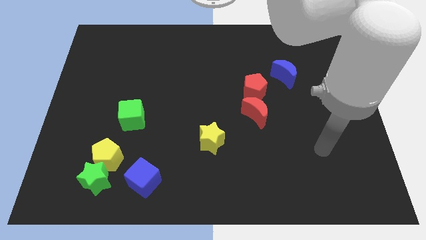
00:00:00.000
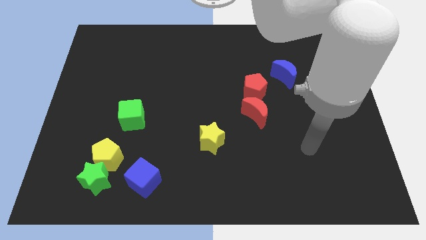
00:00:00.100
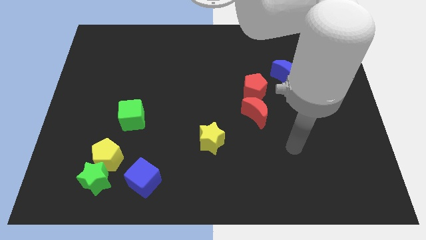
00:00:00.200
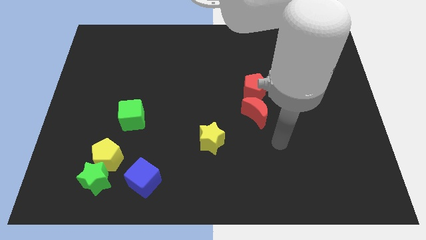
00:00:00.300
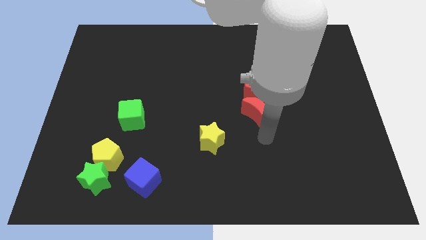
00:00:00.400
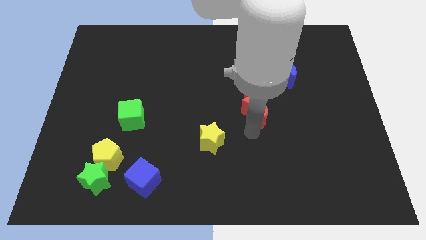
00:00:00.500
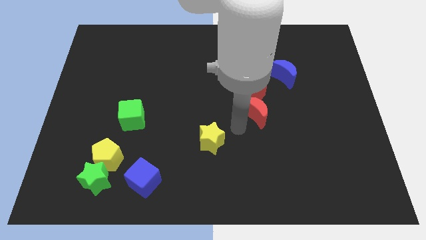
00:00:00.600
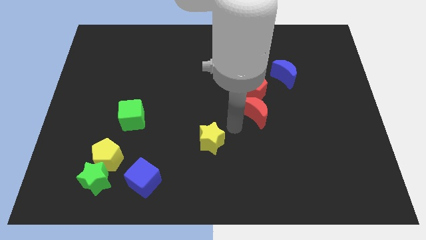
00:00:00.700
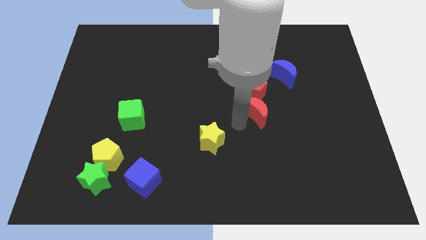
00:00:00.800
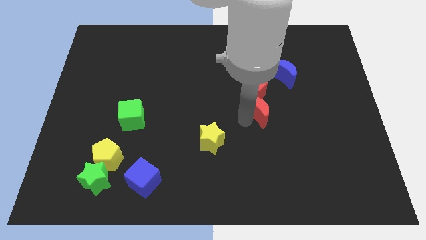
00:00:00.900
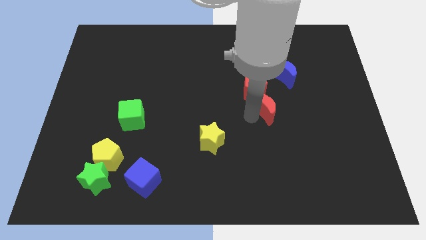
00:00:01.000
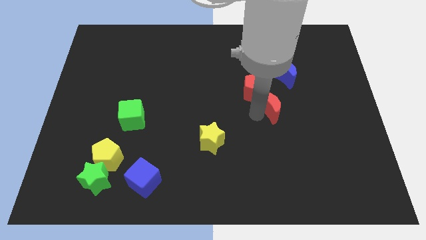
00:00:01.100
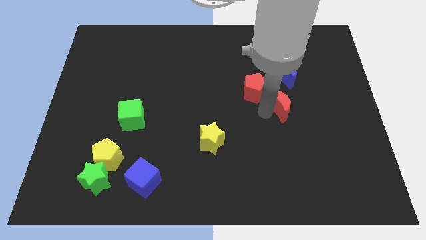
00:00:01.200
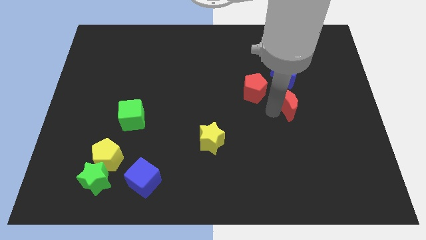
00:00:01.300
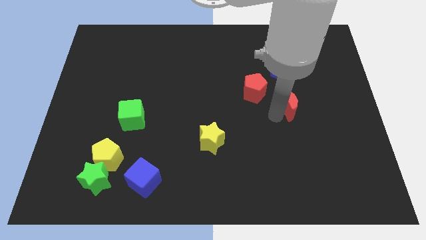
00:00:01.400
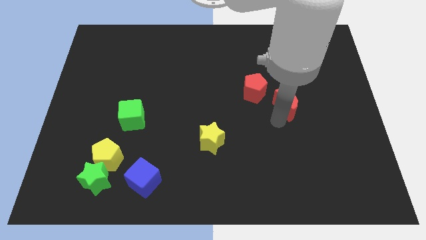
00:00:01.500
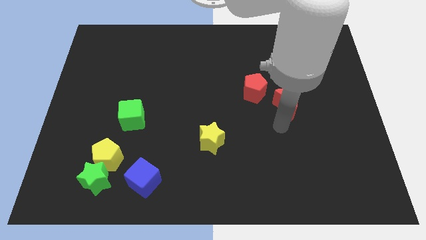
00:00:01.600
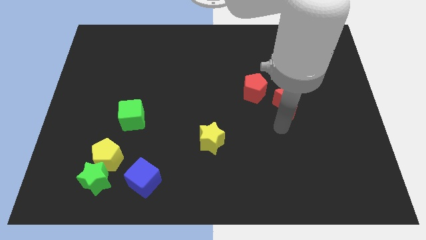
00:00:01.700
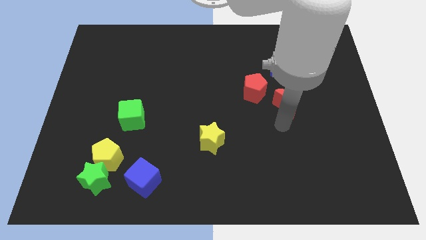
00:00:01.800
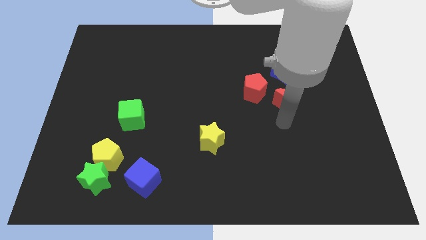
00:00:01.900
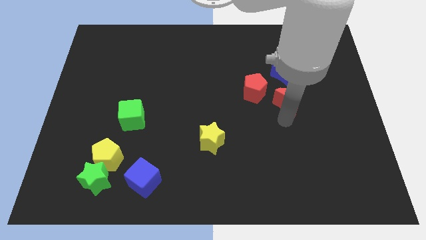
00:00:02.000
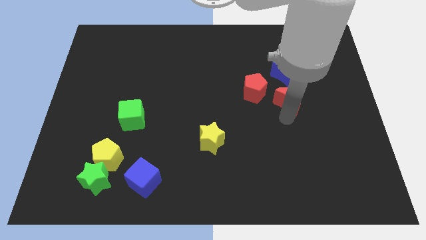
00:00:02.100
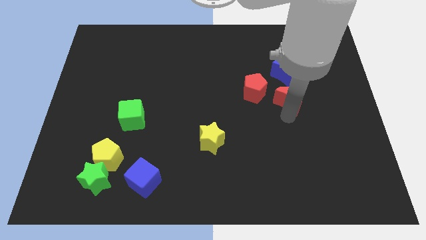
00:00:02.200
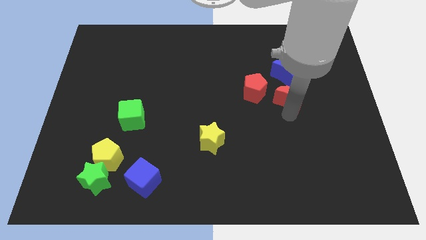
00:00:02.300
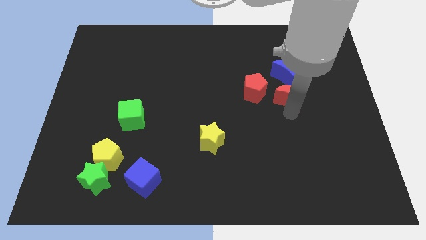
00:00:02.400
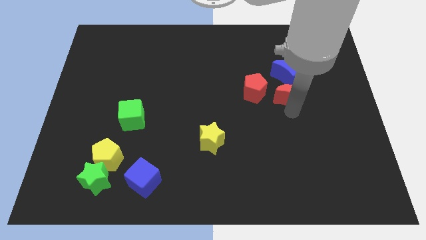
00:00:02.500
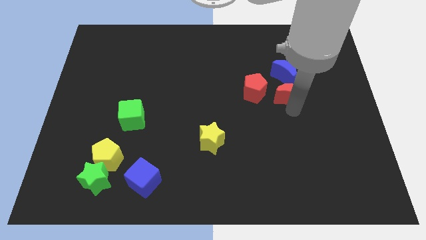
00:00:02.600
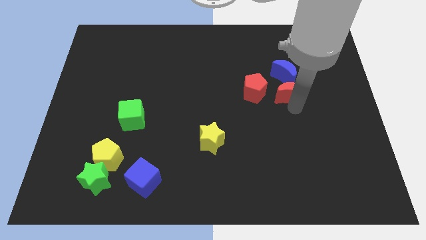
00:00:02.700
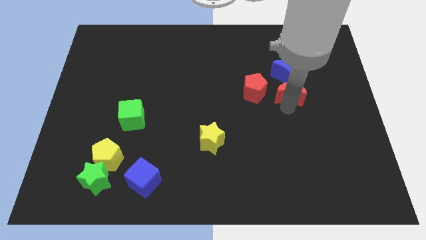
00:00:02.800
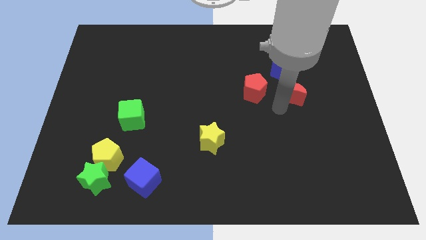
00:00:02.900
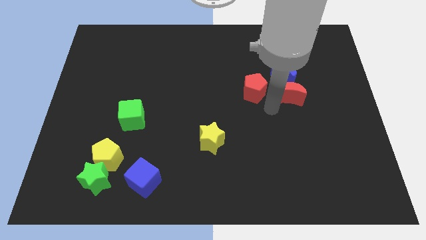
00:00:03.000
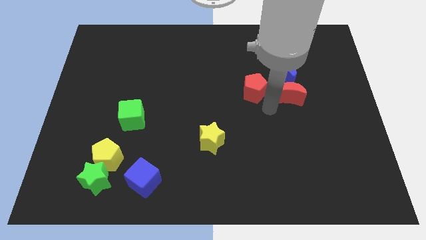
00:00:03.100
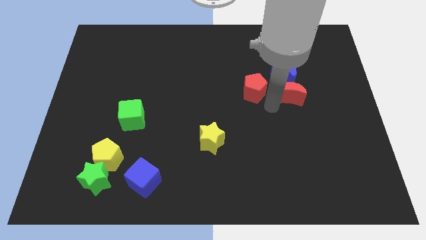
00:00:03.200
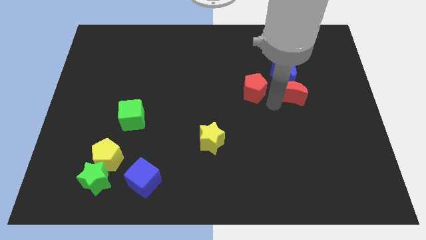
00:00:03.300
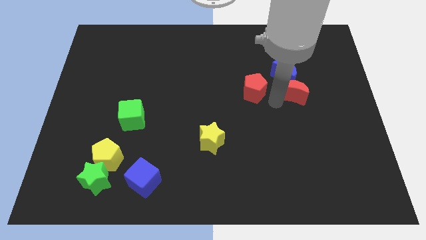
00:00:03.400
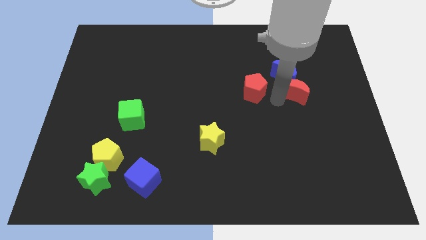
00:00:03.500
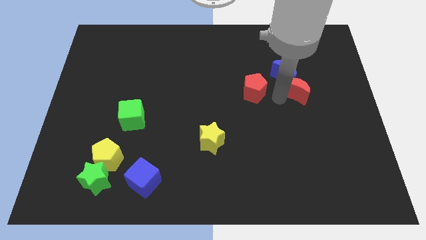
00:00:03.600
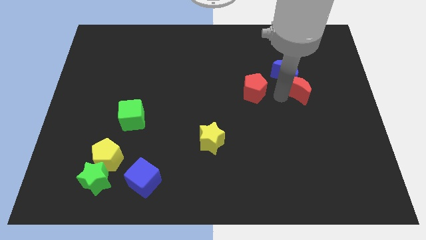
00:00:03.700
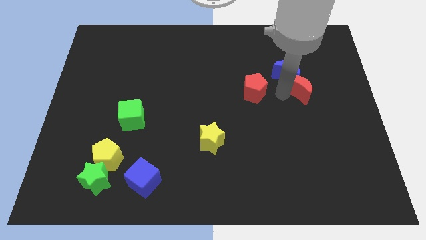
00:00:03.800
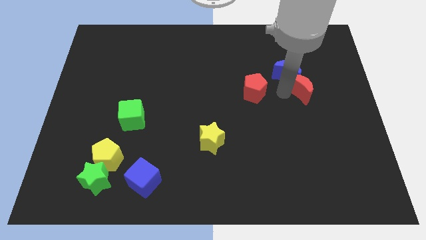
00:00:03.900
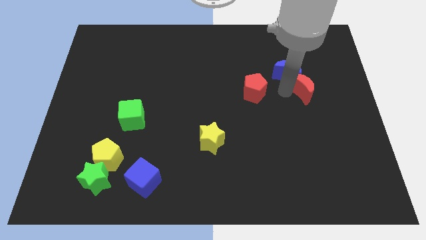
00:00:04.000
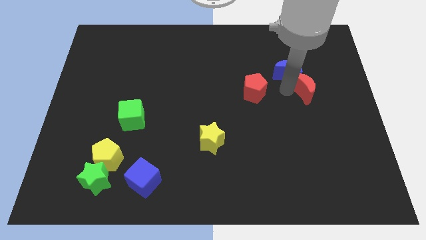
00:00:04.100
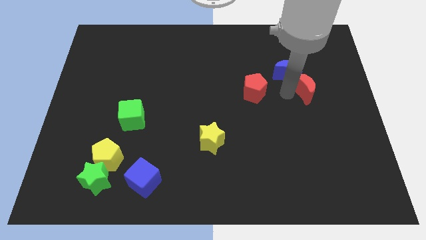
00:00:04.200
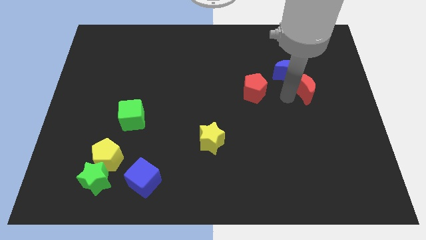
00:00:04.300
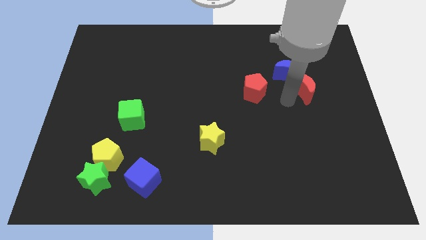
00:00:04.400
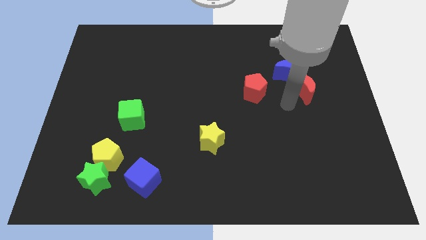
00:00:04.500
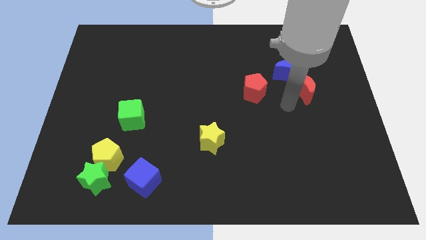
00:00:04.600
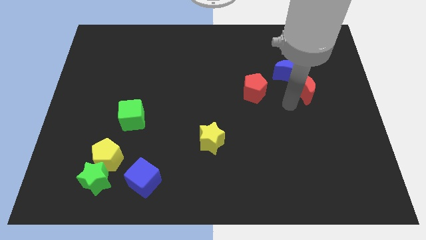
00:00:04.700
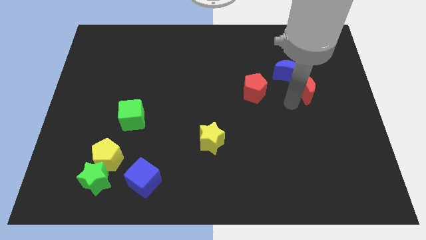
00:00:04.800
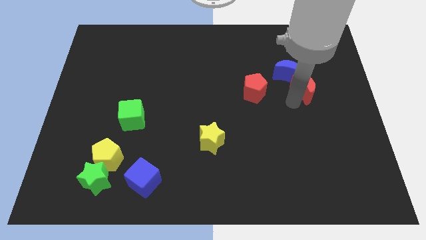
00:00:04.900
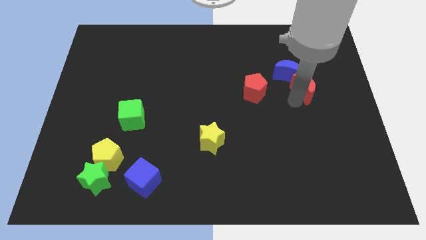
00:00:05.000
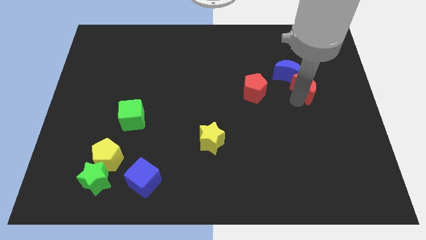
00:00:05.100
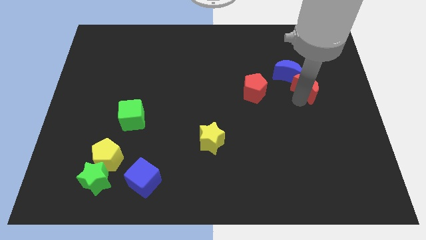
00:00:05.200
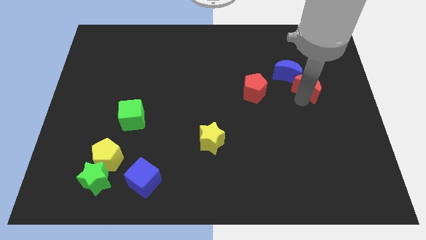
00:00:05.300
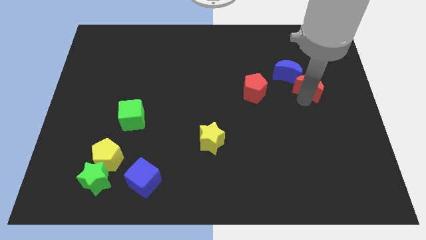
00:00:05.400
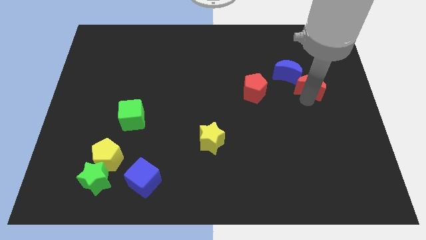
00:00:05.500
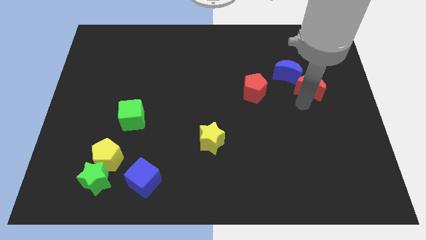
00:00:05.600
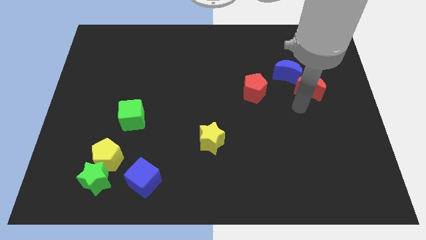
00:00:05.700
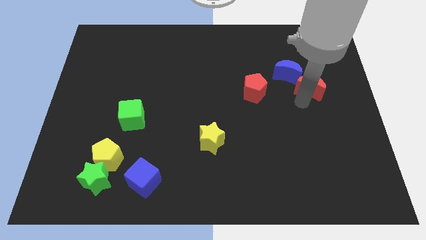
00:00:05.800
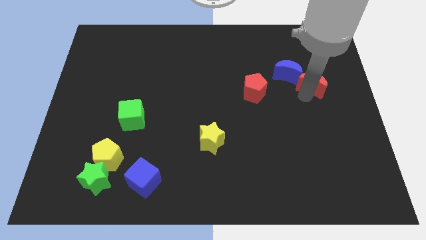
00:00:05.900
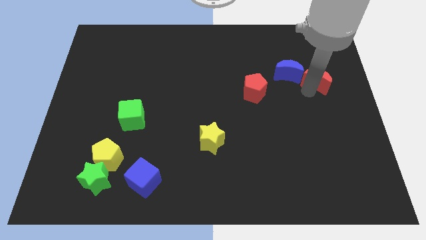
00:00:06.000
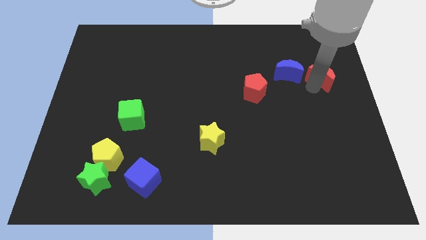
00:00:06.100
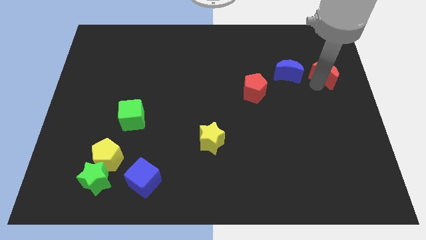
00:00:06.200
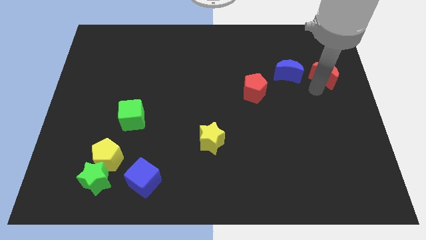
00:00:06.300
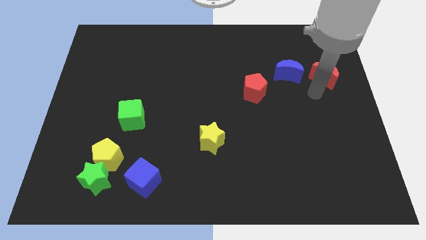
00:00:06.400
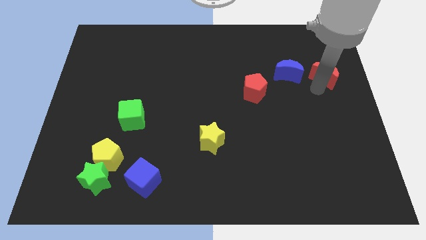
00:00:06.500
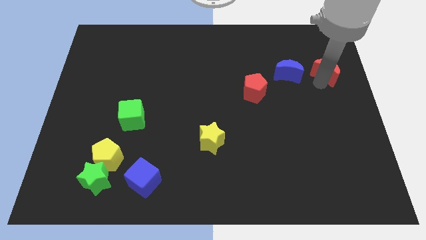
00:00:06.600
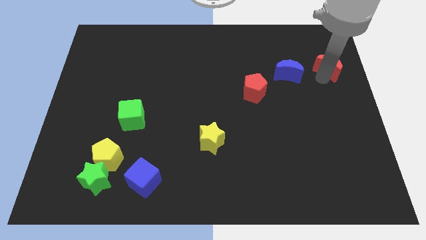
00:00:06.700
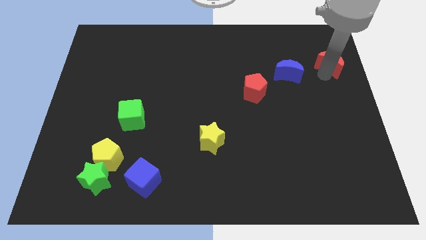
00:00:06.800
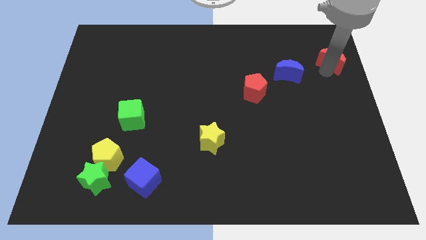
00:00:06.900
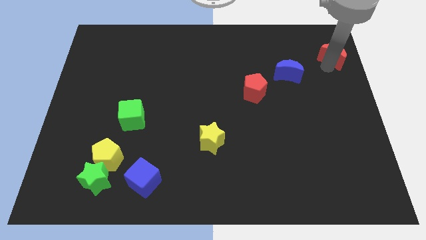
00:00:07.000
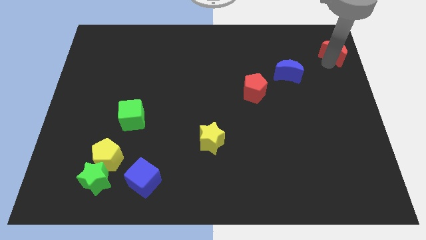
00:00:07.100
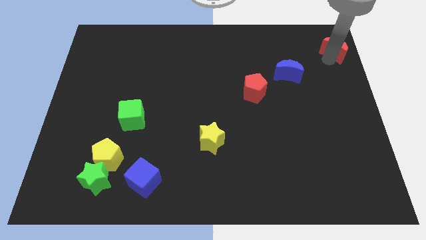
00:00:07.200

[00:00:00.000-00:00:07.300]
push the red moon to the top right
